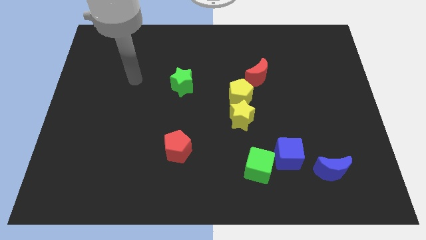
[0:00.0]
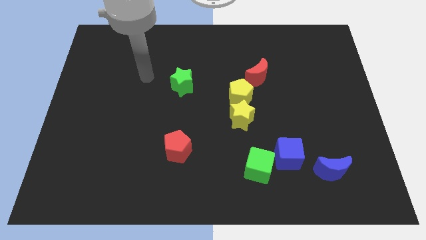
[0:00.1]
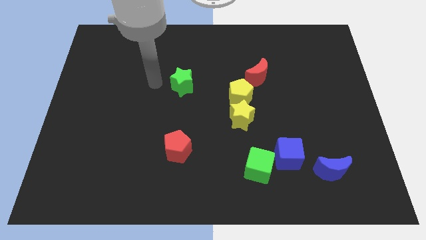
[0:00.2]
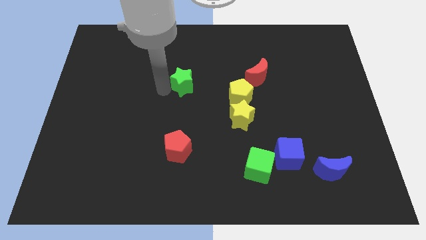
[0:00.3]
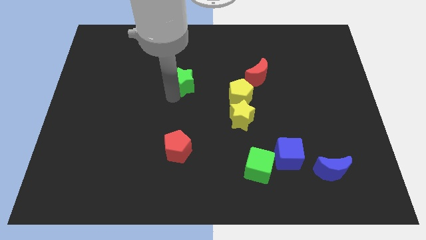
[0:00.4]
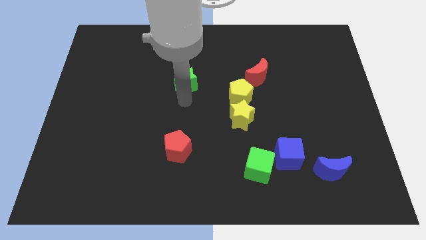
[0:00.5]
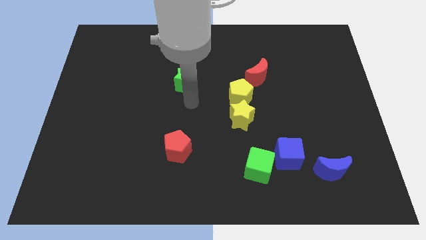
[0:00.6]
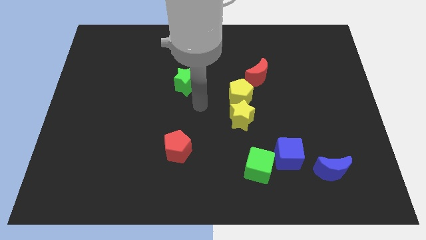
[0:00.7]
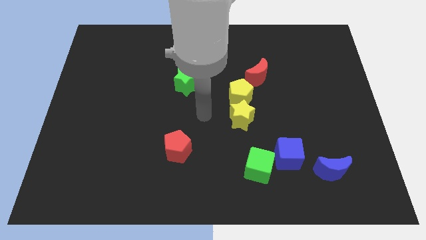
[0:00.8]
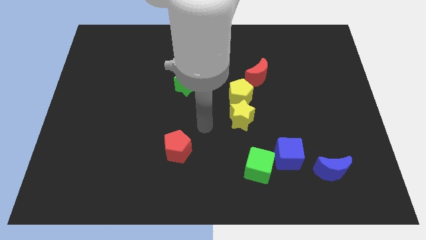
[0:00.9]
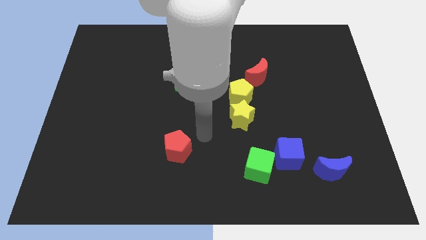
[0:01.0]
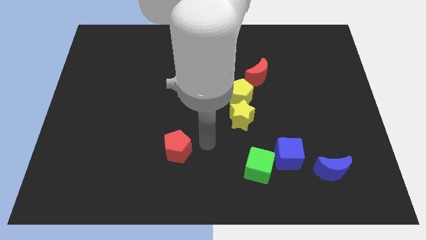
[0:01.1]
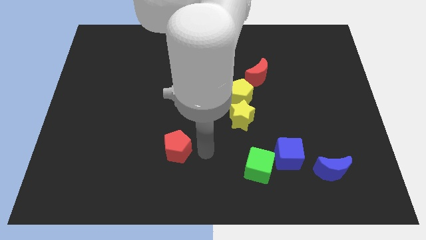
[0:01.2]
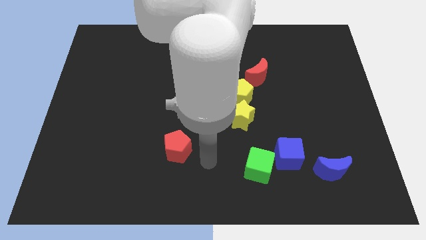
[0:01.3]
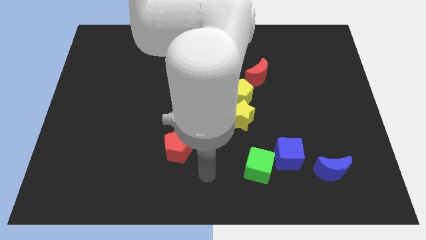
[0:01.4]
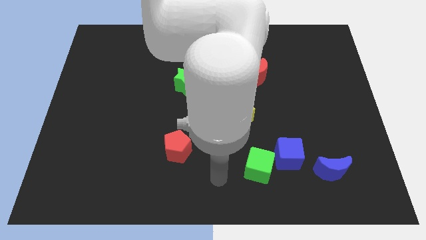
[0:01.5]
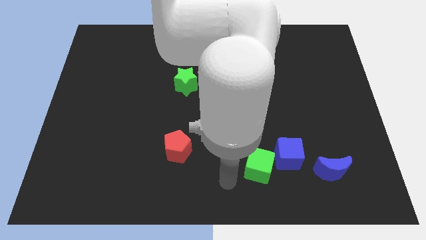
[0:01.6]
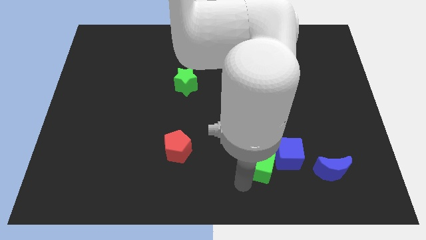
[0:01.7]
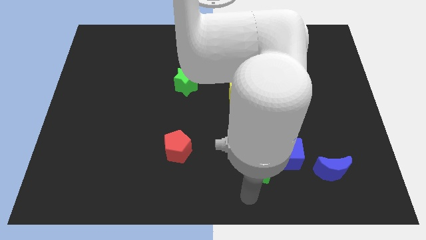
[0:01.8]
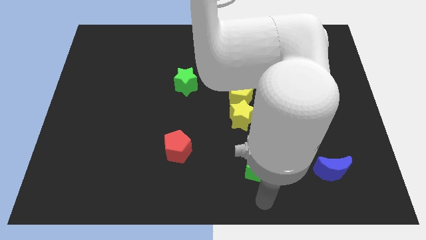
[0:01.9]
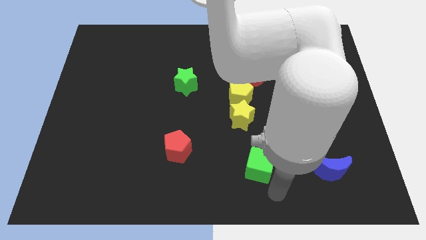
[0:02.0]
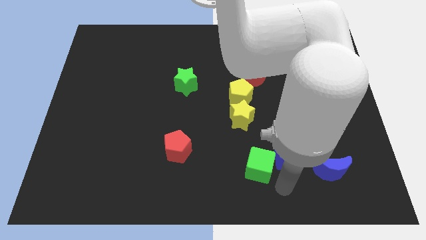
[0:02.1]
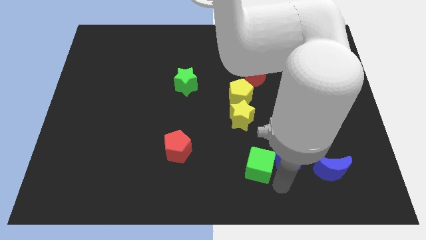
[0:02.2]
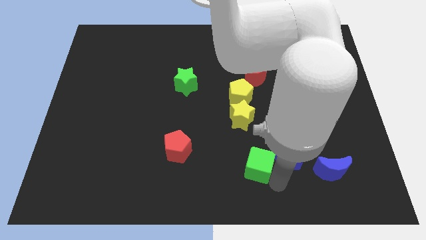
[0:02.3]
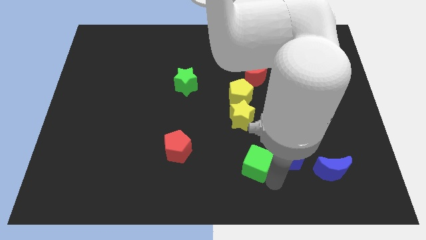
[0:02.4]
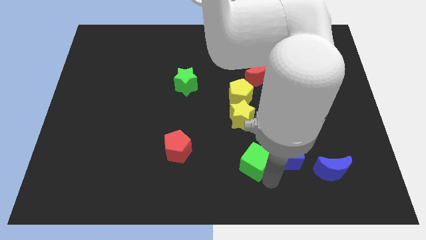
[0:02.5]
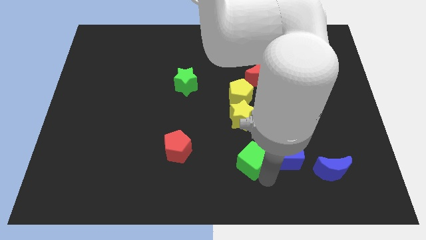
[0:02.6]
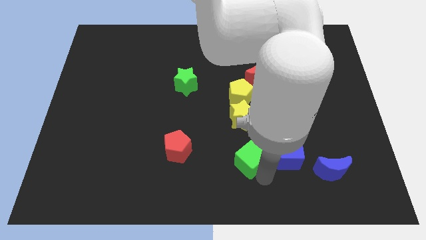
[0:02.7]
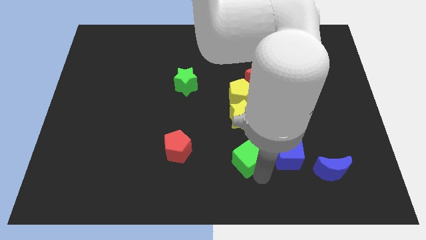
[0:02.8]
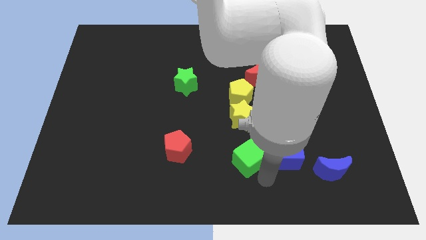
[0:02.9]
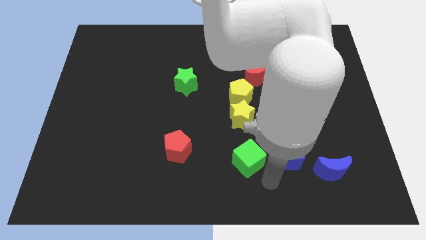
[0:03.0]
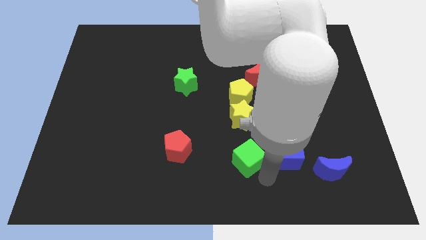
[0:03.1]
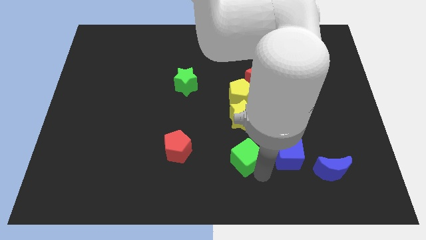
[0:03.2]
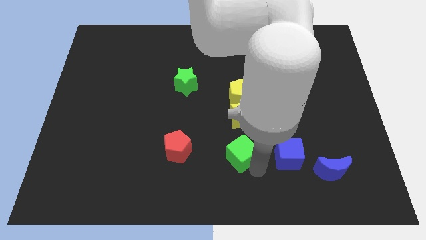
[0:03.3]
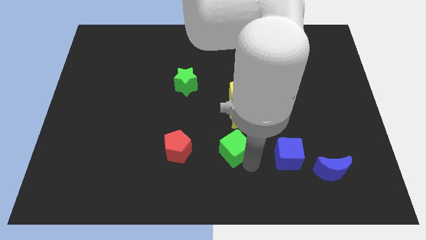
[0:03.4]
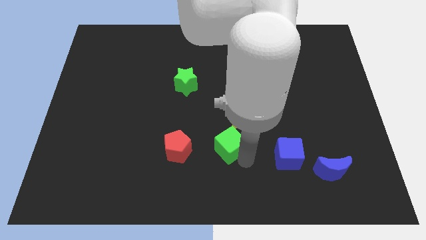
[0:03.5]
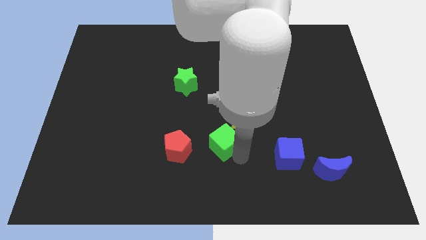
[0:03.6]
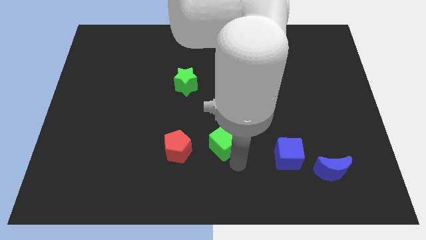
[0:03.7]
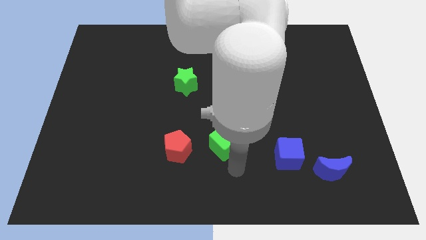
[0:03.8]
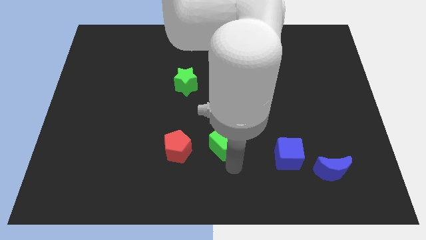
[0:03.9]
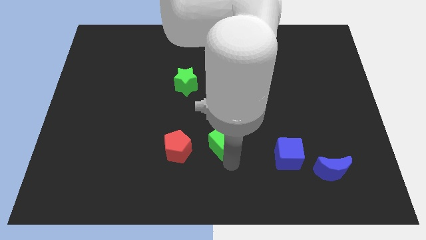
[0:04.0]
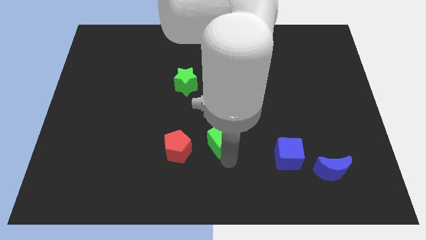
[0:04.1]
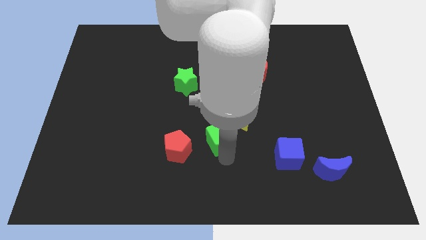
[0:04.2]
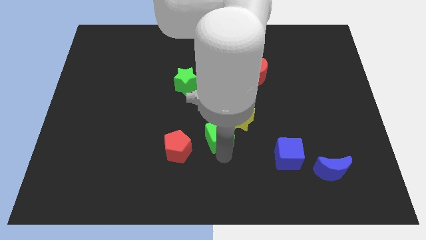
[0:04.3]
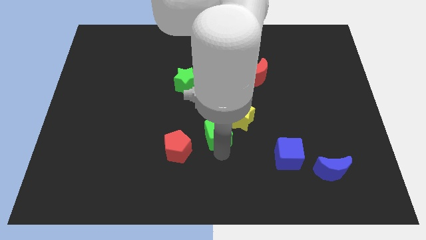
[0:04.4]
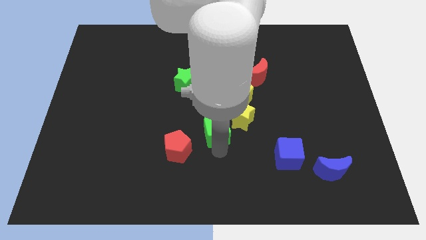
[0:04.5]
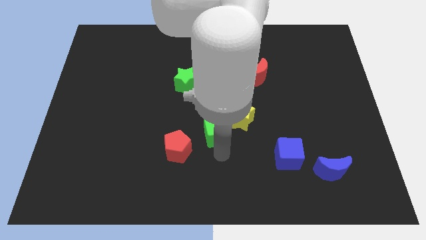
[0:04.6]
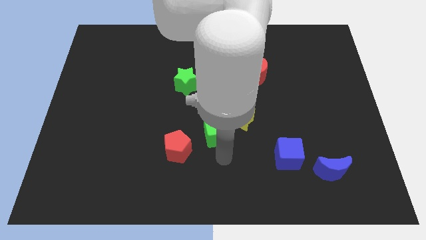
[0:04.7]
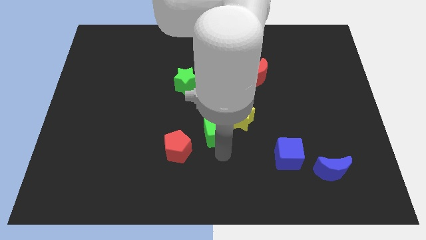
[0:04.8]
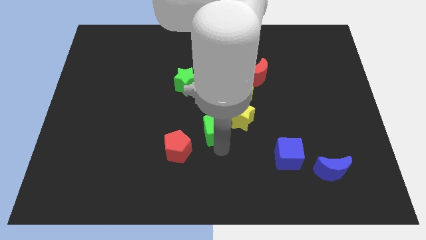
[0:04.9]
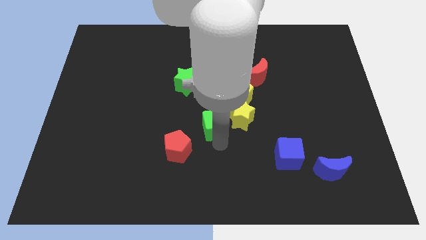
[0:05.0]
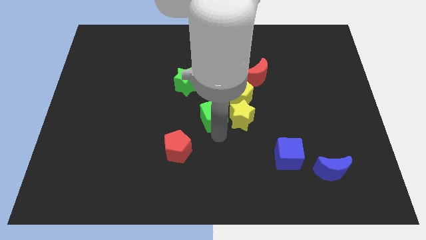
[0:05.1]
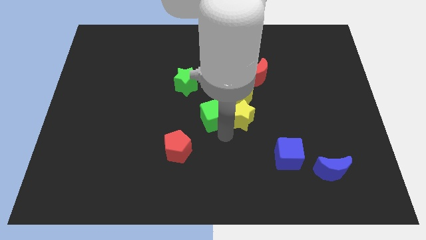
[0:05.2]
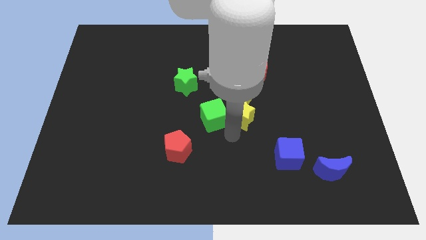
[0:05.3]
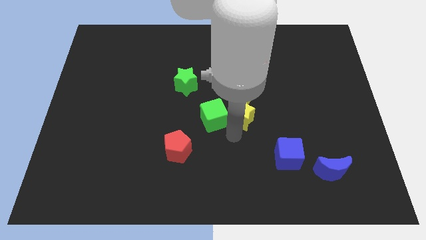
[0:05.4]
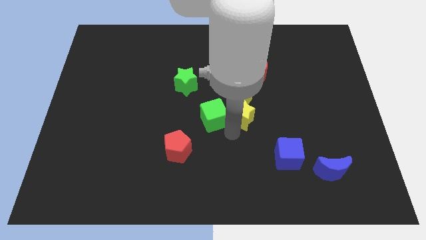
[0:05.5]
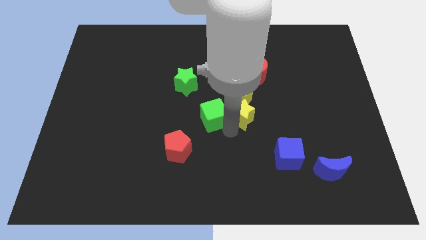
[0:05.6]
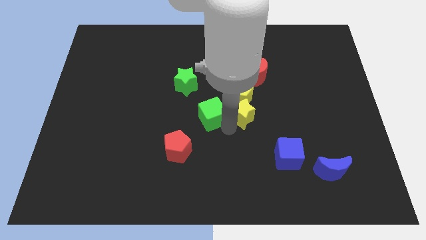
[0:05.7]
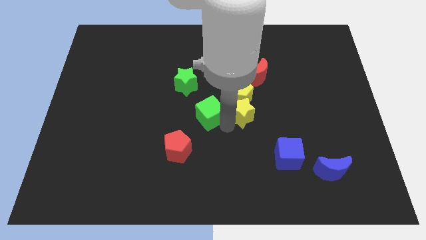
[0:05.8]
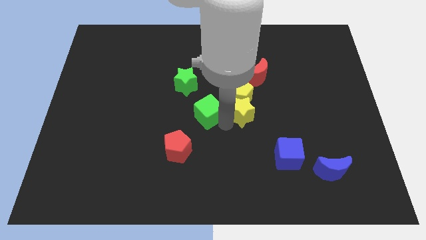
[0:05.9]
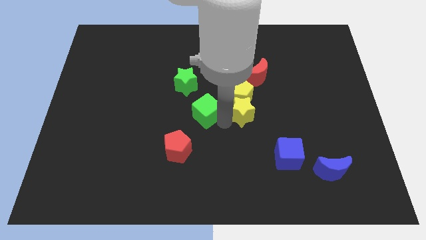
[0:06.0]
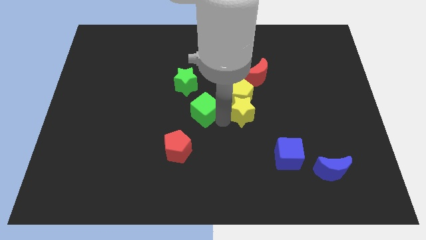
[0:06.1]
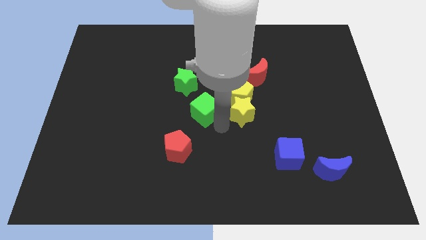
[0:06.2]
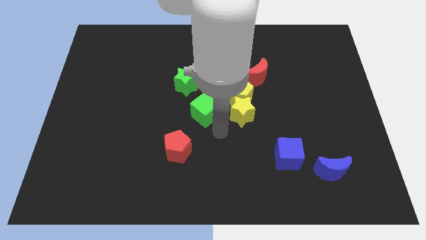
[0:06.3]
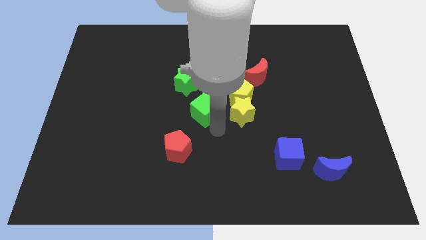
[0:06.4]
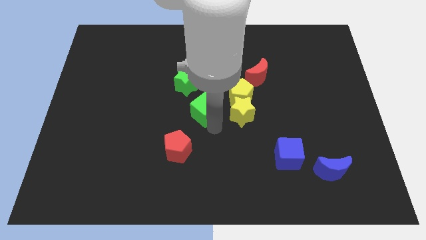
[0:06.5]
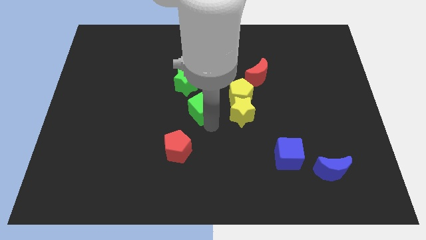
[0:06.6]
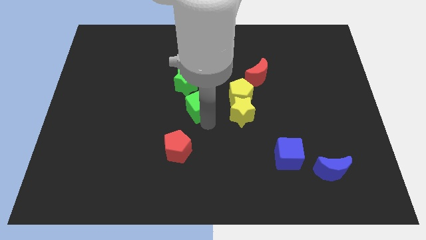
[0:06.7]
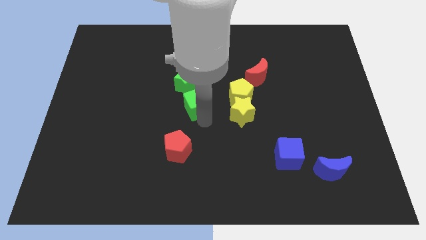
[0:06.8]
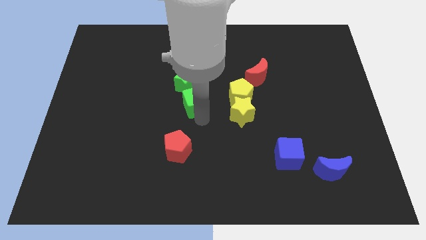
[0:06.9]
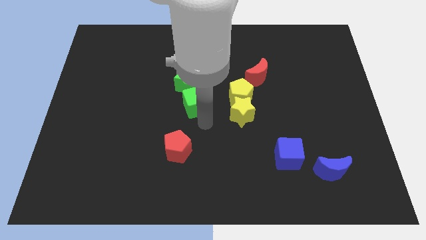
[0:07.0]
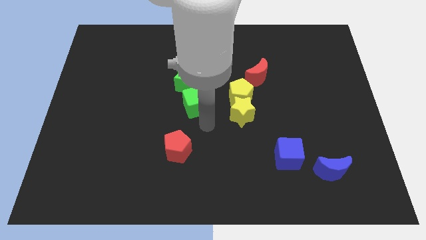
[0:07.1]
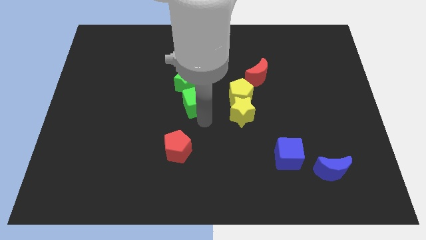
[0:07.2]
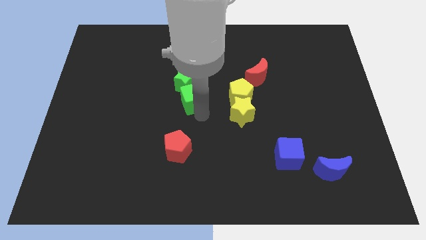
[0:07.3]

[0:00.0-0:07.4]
move the green cube to the green star
